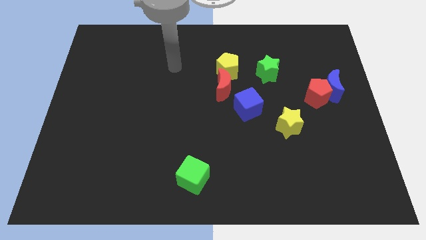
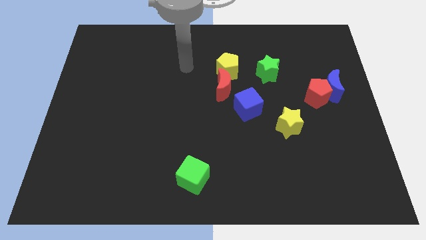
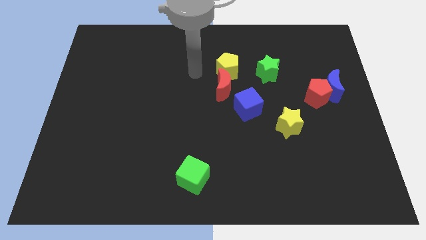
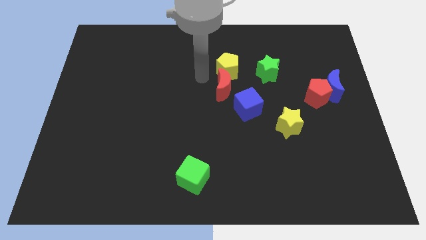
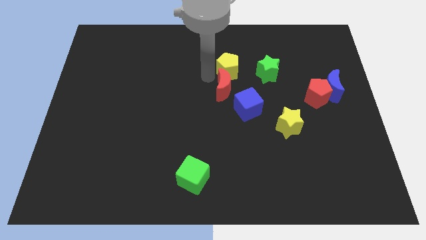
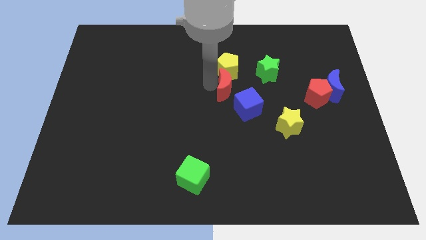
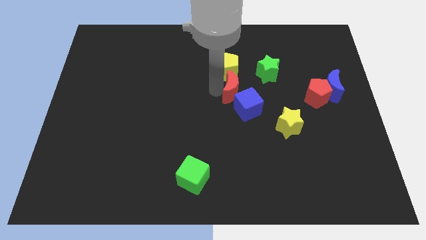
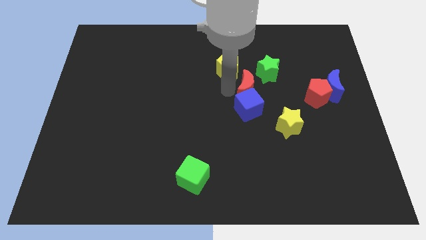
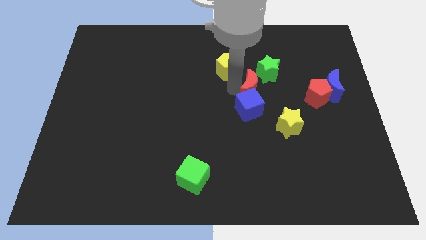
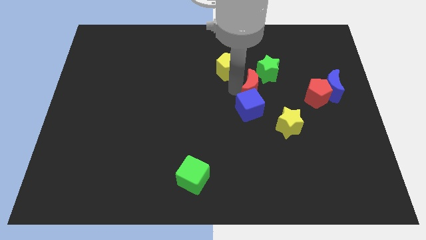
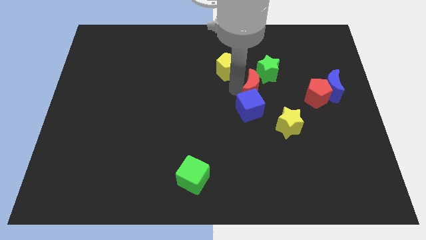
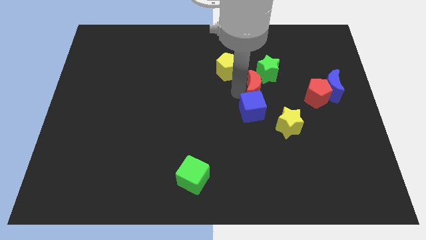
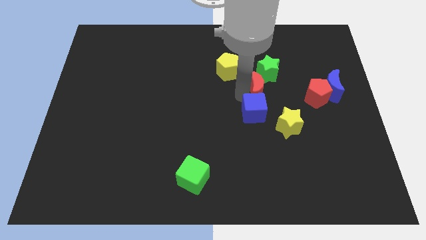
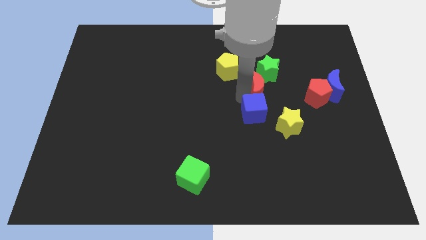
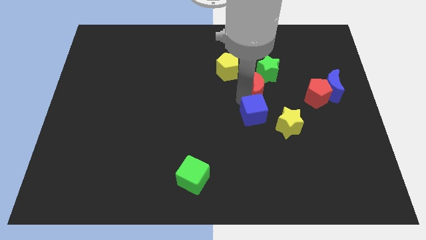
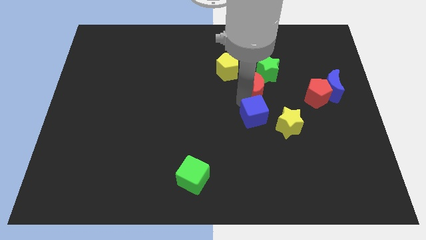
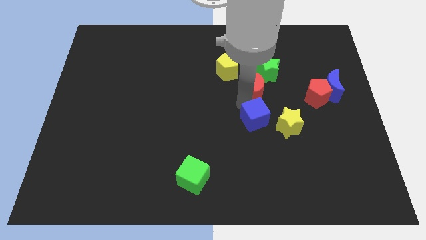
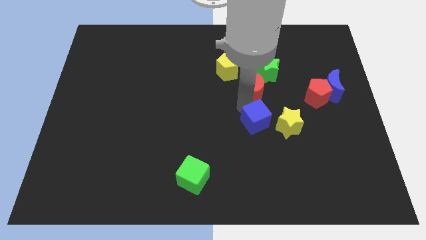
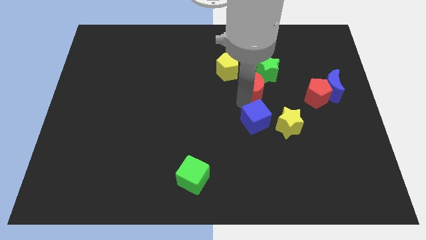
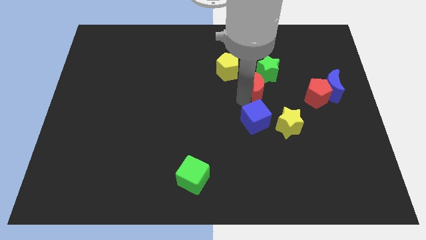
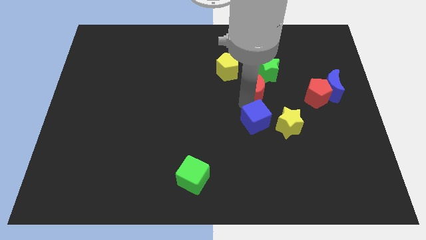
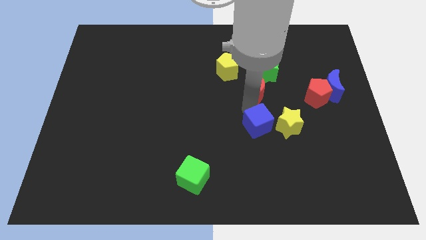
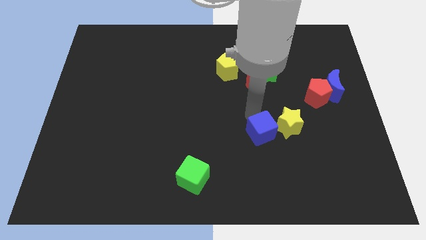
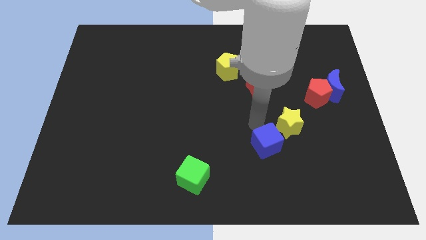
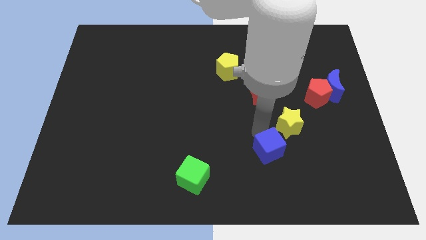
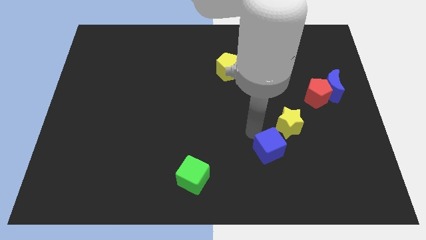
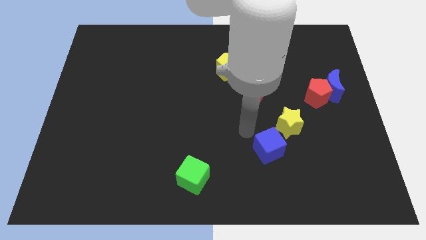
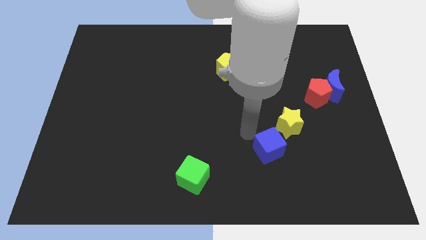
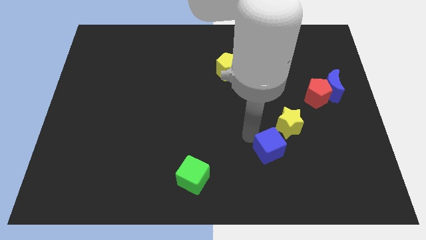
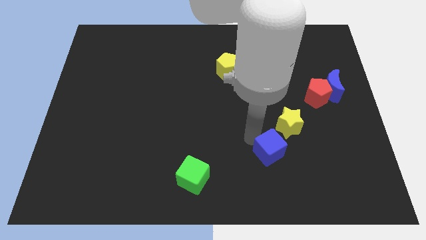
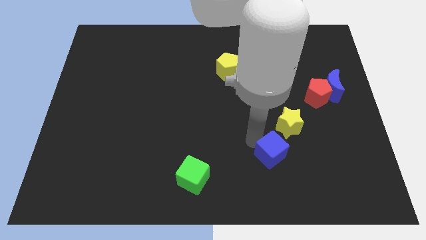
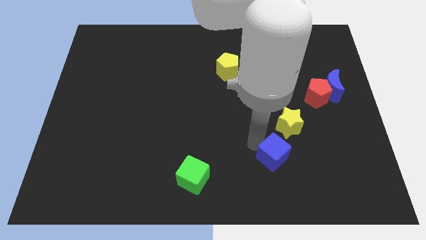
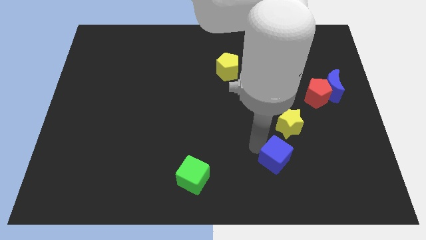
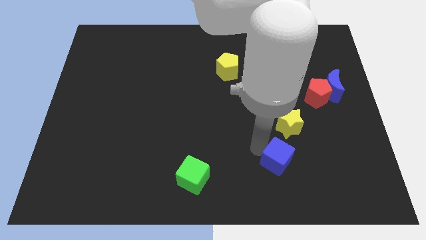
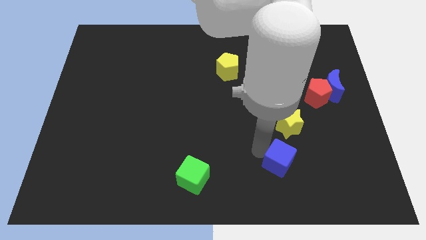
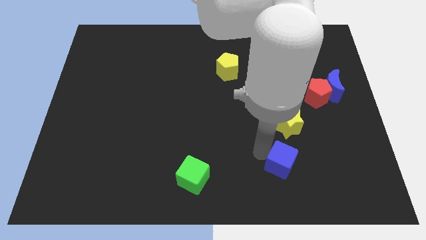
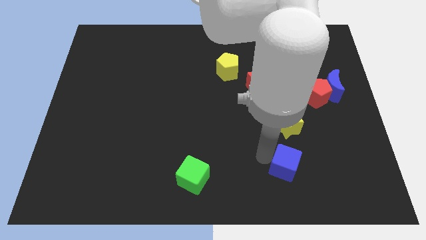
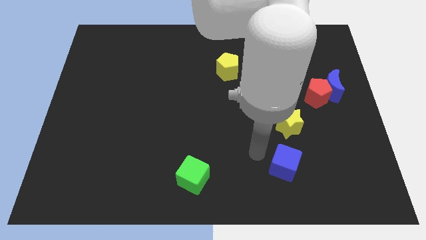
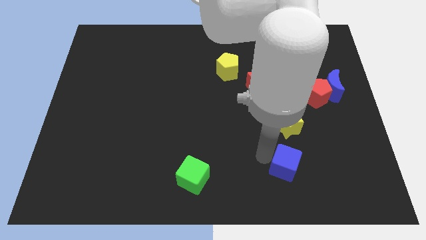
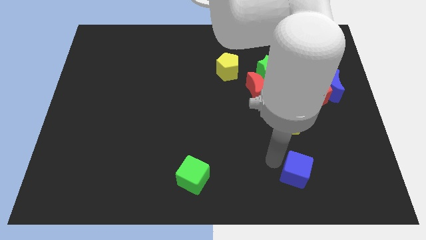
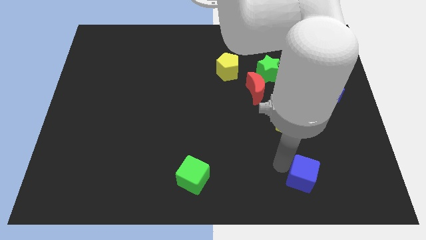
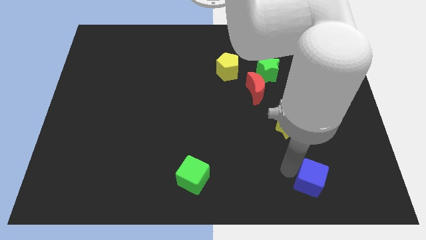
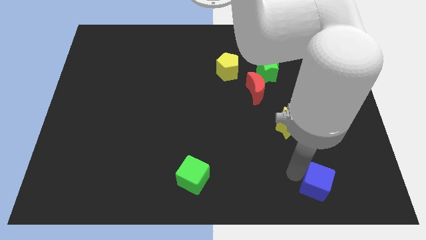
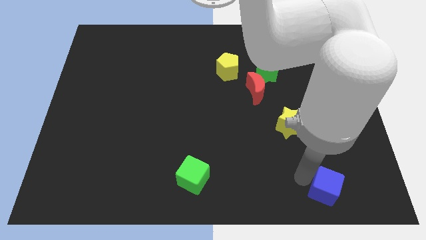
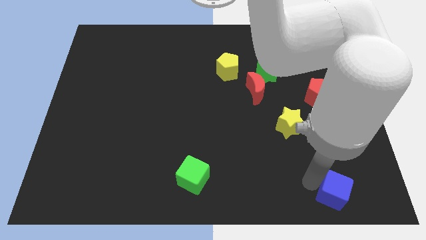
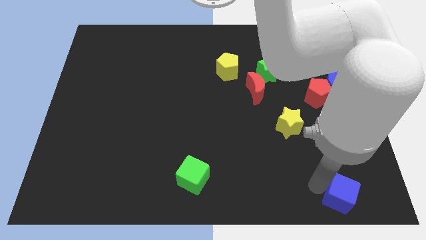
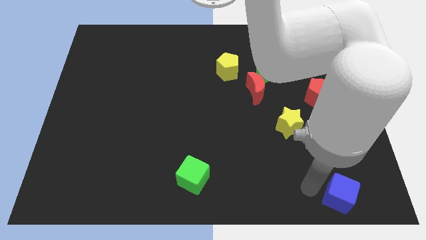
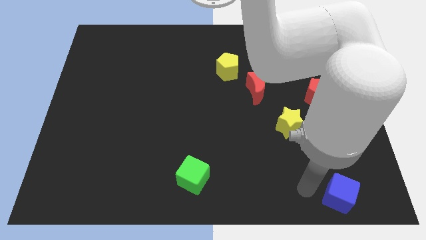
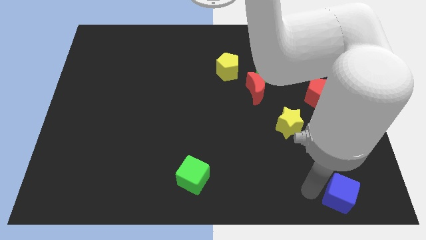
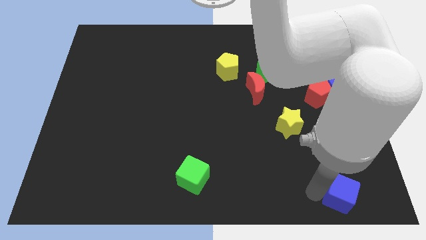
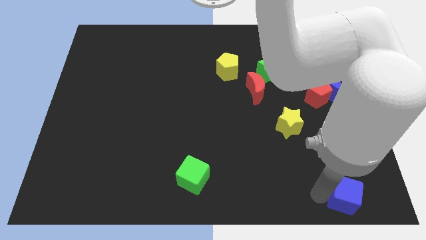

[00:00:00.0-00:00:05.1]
put the blue cube to the bottom right of the board

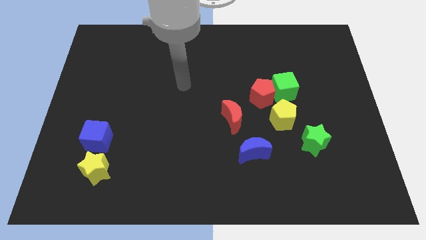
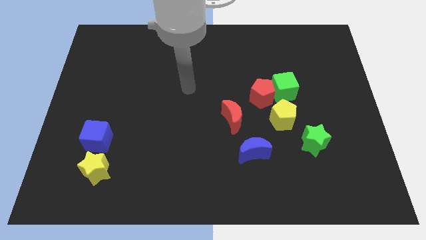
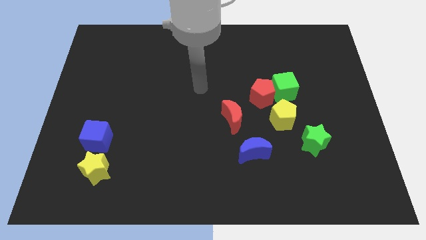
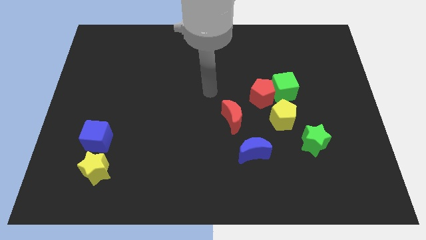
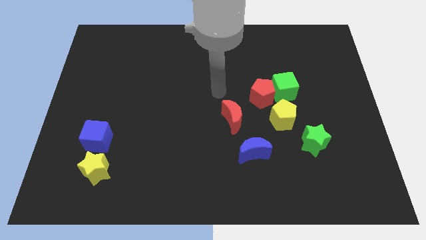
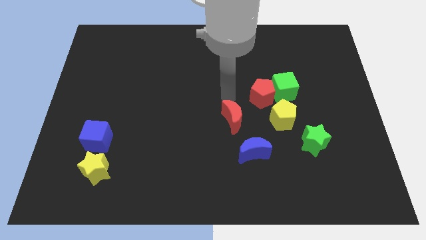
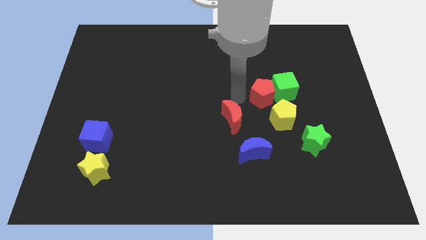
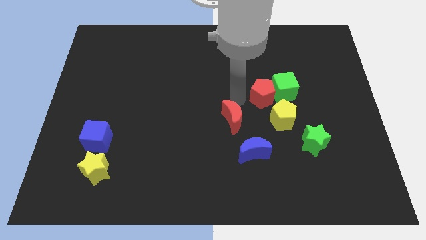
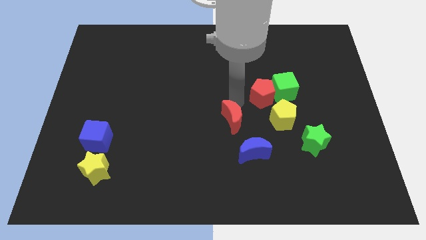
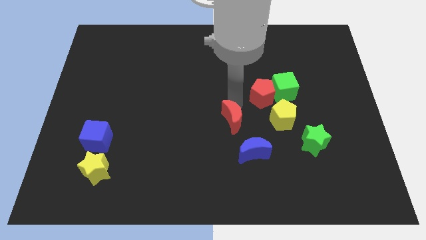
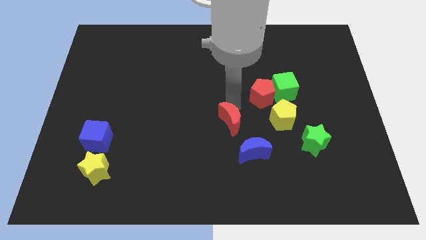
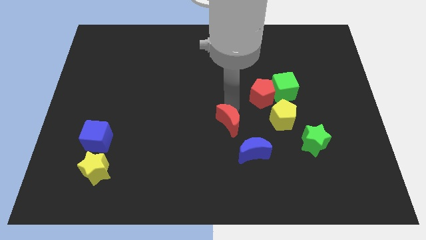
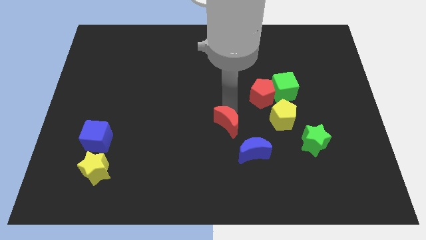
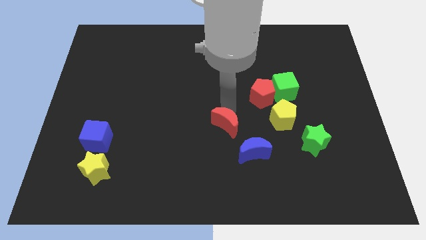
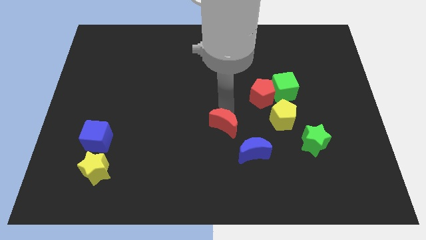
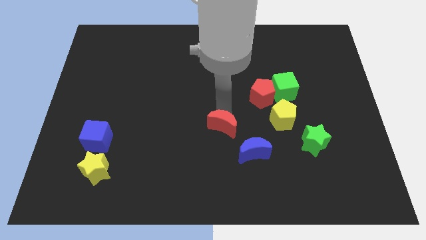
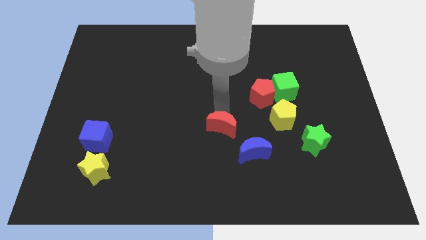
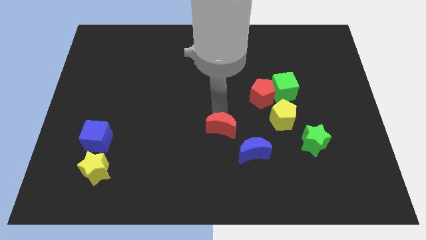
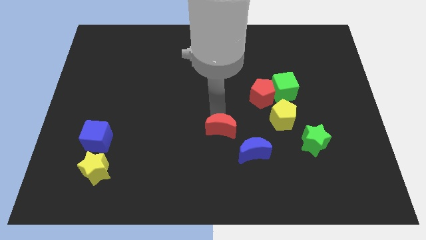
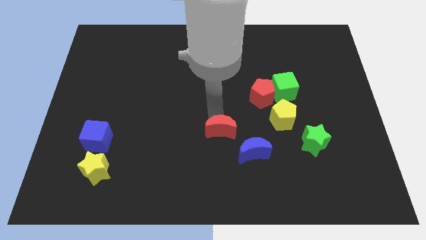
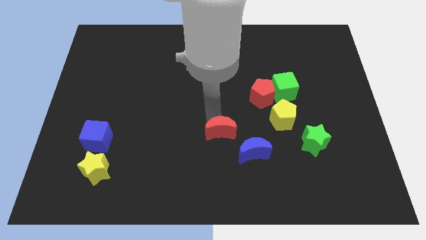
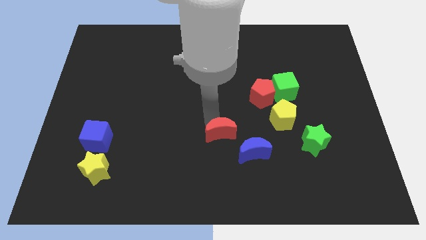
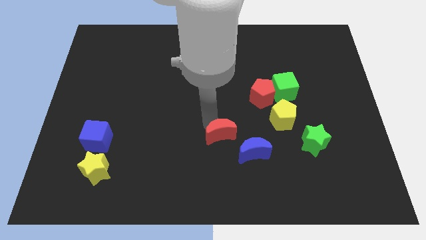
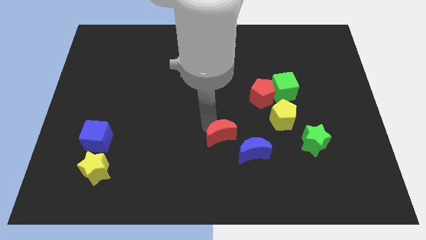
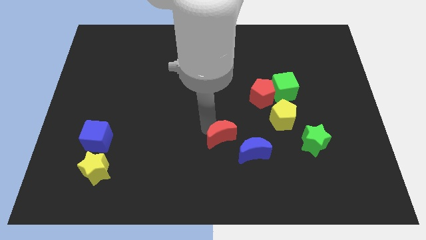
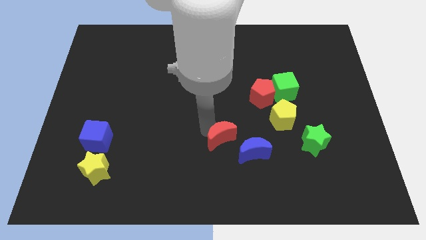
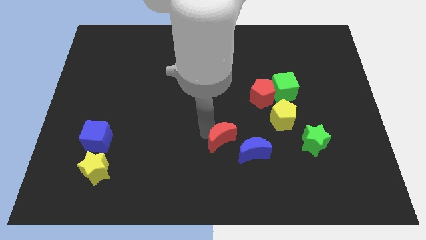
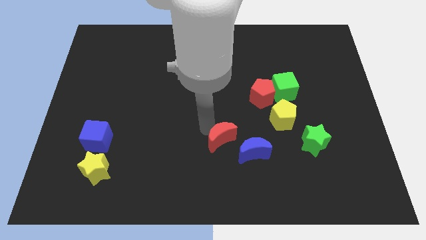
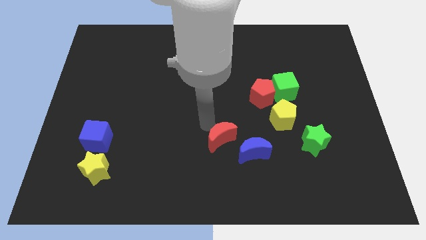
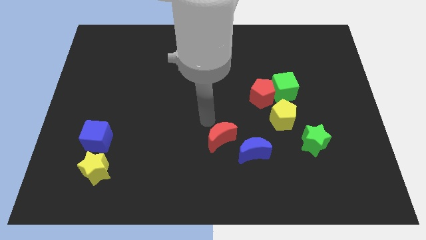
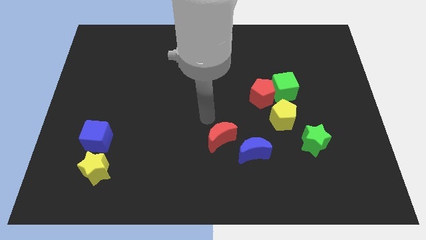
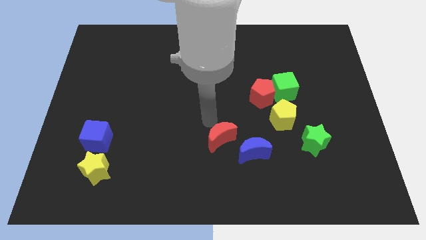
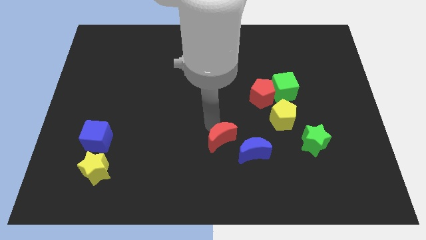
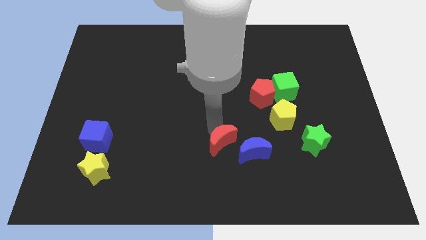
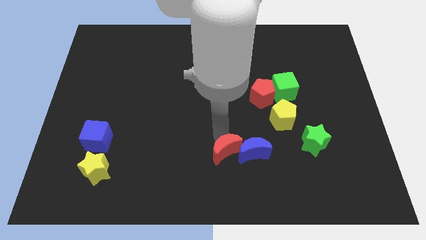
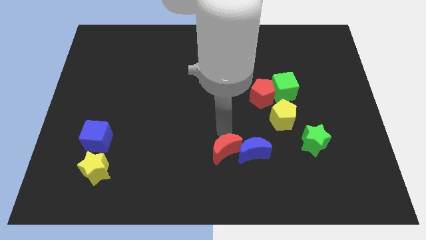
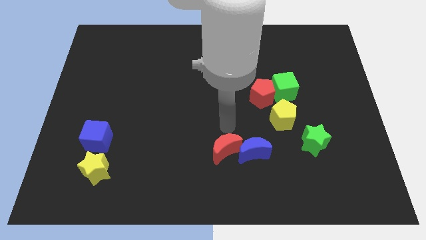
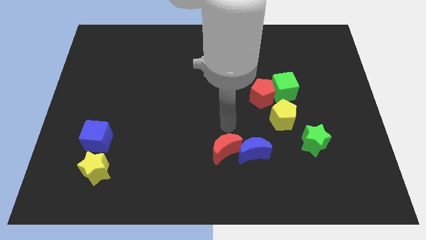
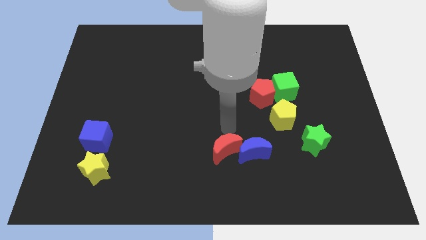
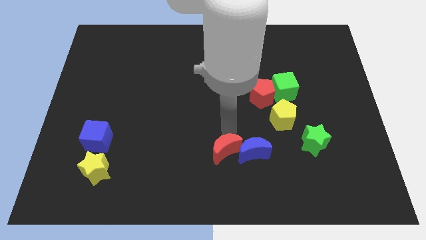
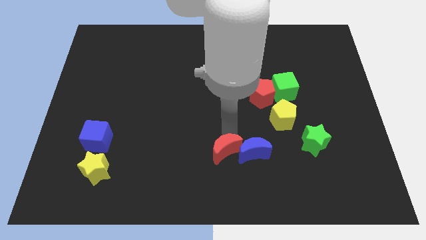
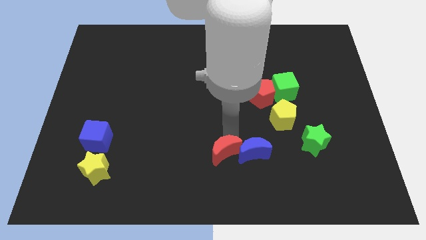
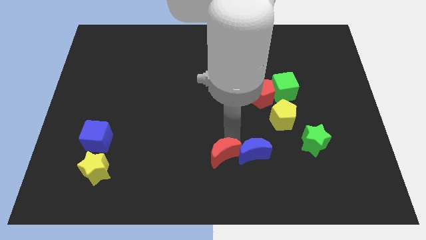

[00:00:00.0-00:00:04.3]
move the red moon to the bottom side
